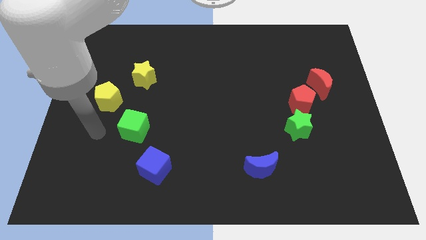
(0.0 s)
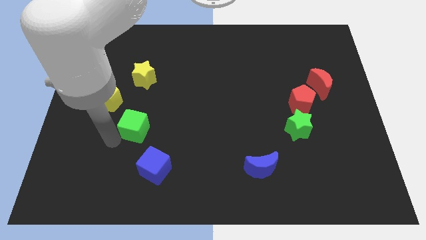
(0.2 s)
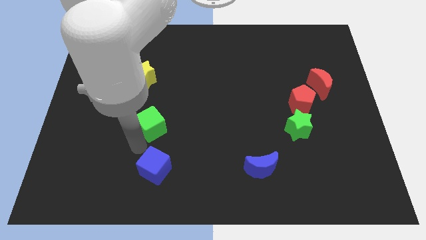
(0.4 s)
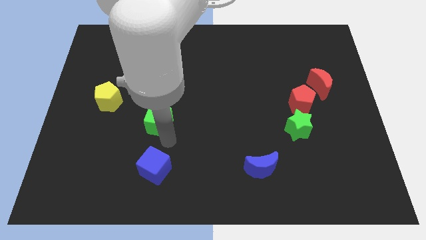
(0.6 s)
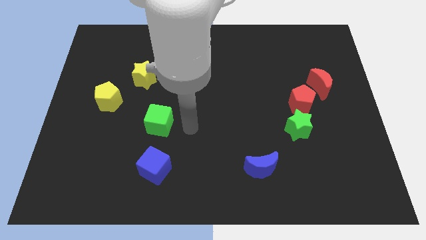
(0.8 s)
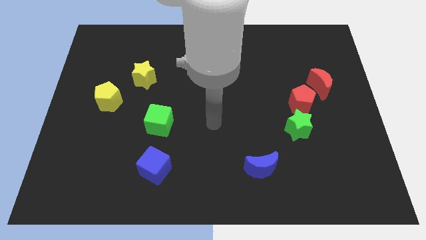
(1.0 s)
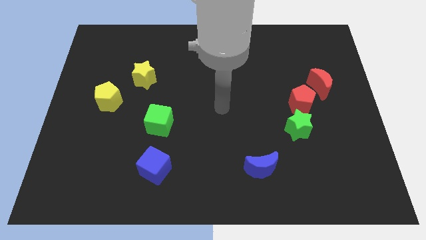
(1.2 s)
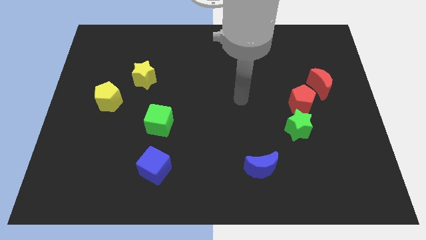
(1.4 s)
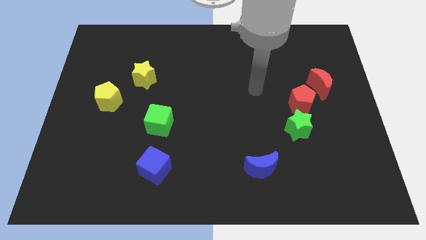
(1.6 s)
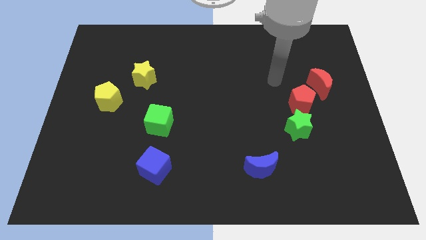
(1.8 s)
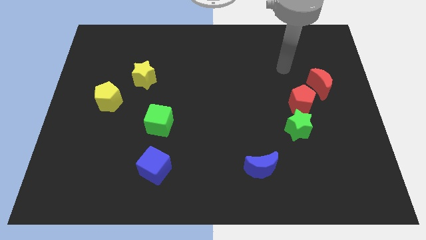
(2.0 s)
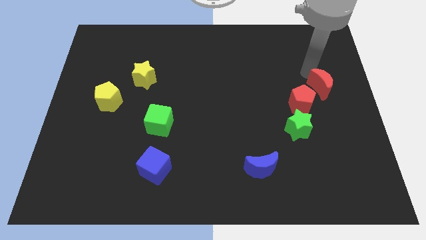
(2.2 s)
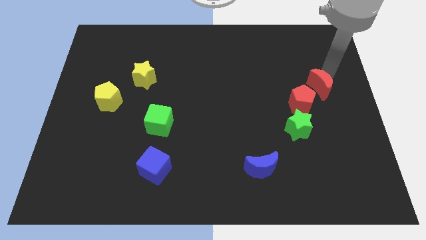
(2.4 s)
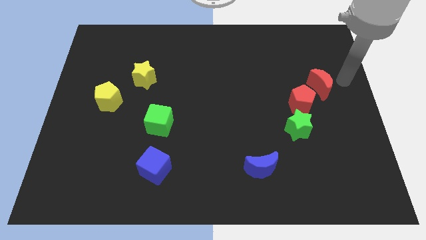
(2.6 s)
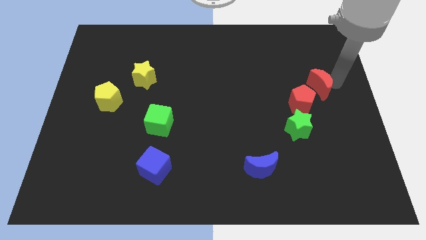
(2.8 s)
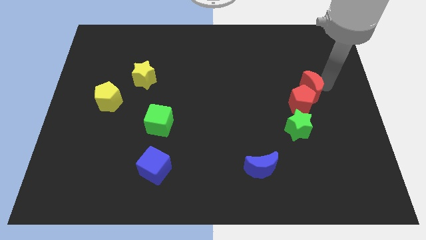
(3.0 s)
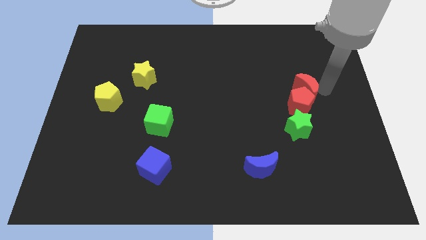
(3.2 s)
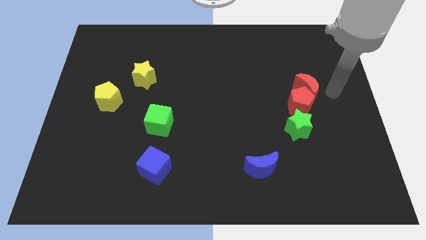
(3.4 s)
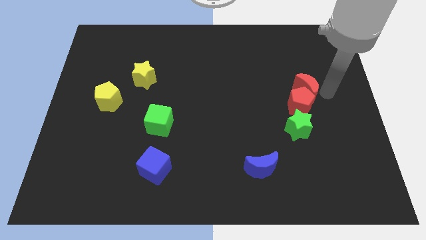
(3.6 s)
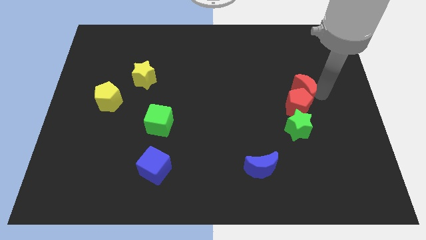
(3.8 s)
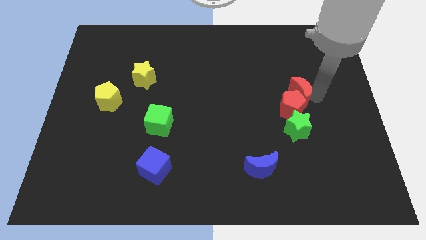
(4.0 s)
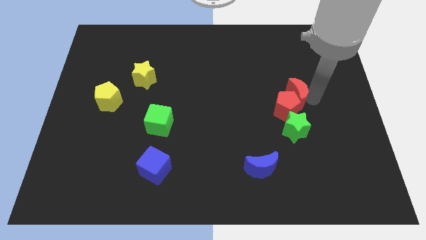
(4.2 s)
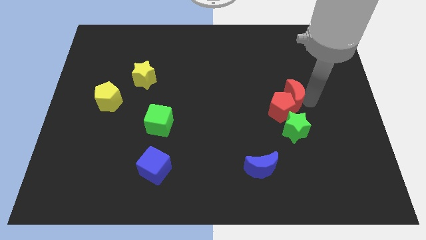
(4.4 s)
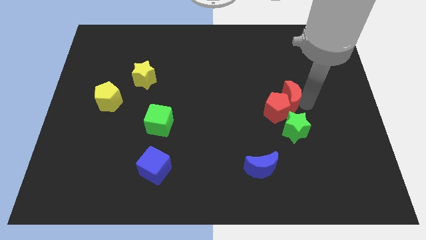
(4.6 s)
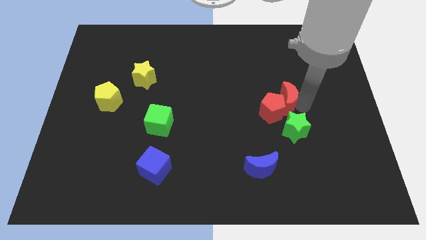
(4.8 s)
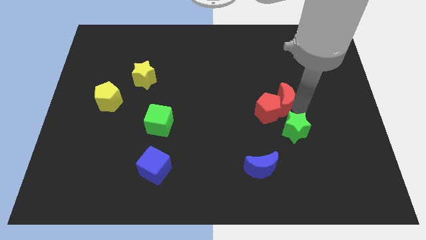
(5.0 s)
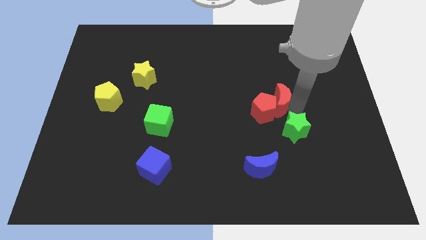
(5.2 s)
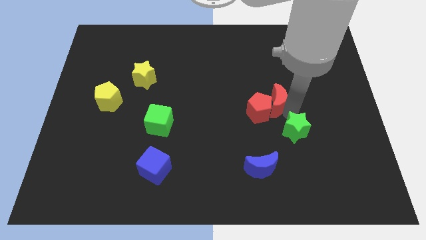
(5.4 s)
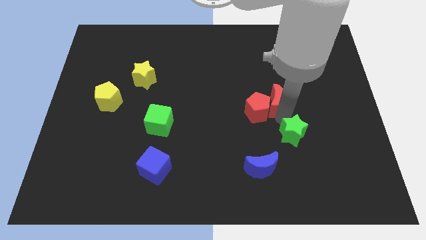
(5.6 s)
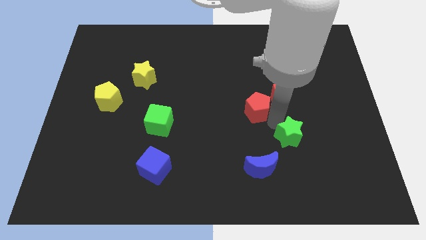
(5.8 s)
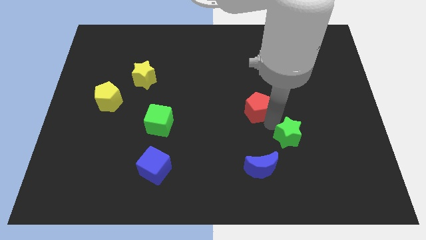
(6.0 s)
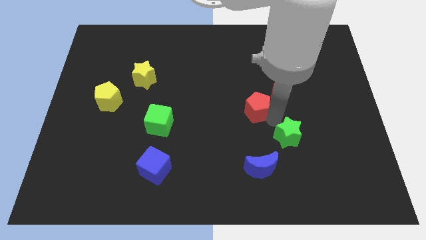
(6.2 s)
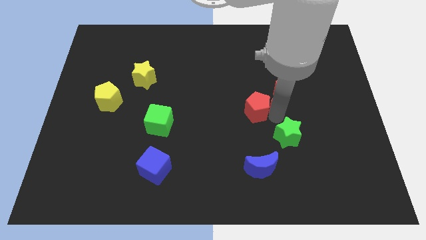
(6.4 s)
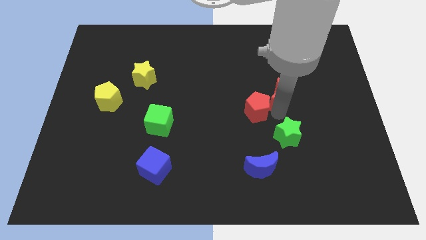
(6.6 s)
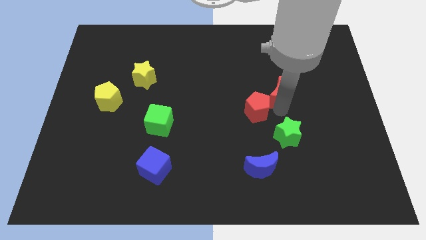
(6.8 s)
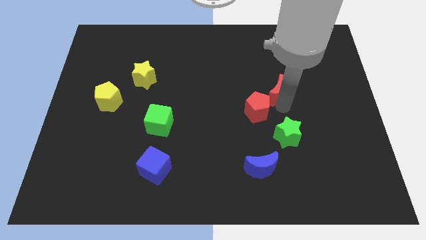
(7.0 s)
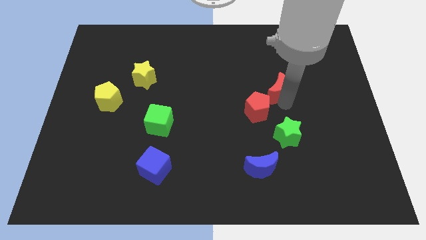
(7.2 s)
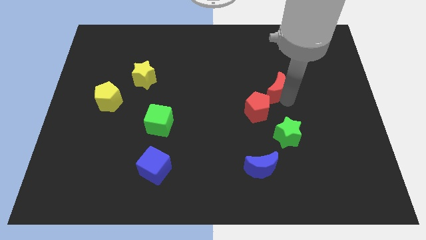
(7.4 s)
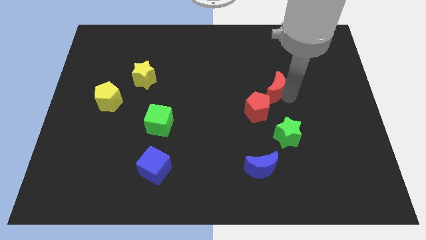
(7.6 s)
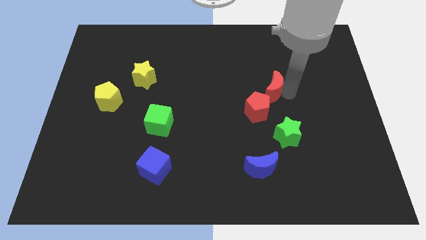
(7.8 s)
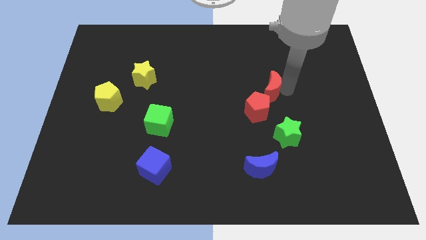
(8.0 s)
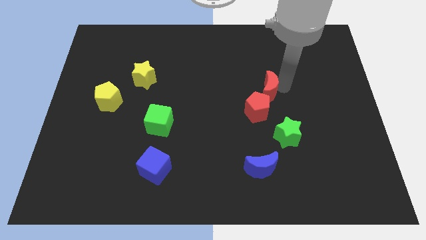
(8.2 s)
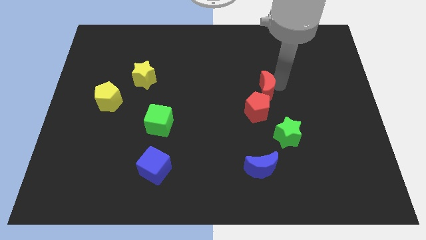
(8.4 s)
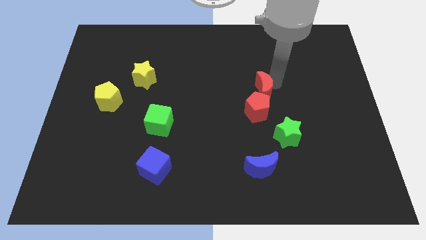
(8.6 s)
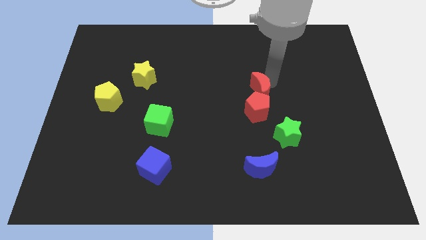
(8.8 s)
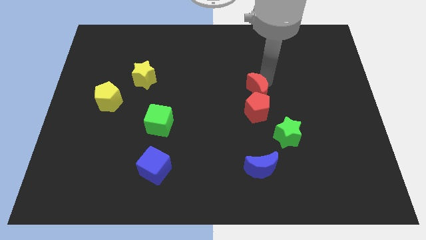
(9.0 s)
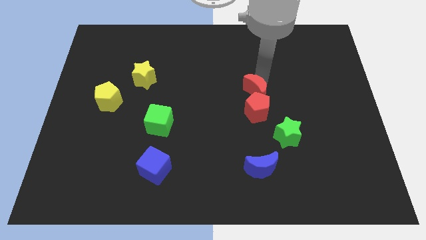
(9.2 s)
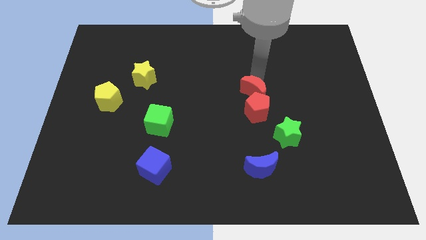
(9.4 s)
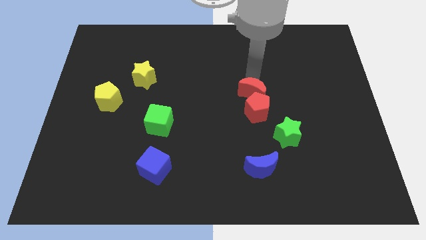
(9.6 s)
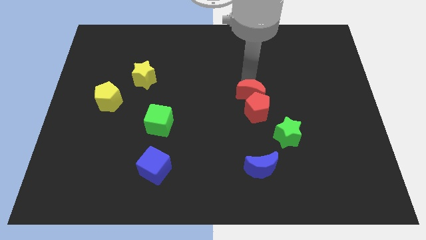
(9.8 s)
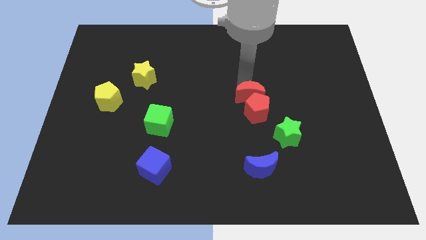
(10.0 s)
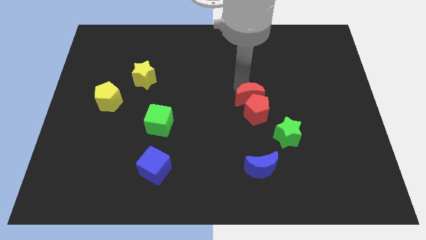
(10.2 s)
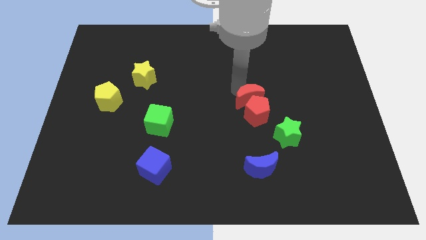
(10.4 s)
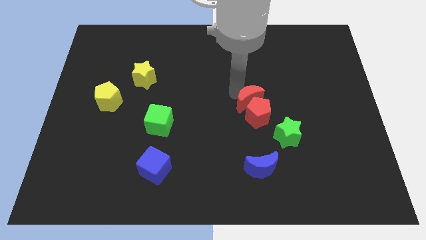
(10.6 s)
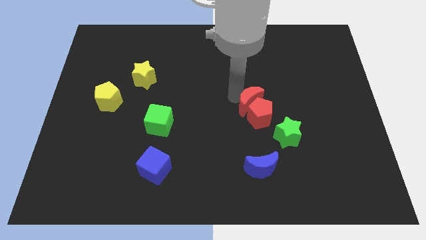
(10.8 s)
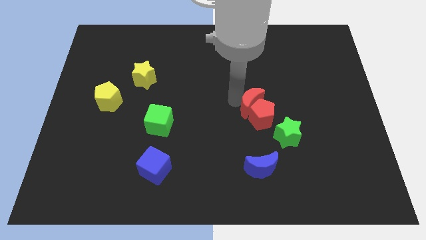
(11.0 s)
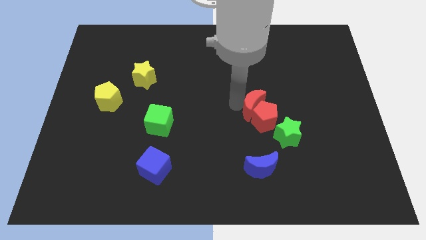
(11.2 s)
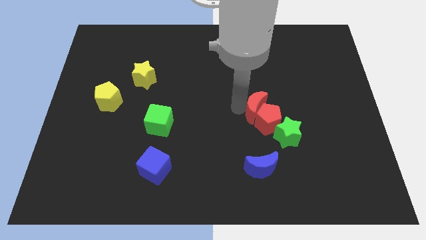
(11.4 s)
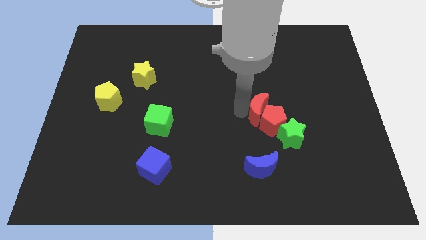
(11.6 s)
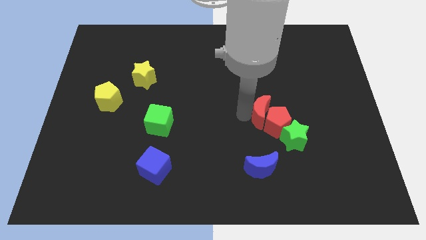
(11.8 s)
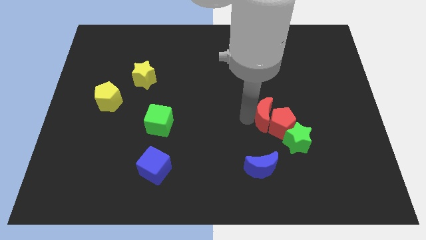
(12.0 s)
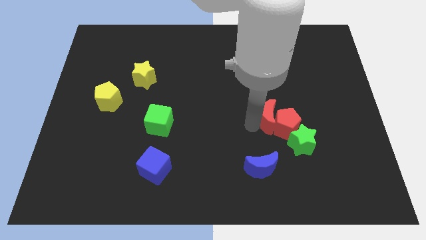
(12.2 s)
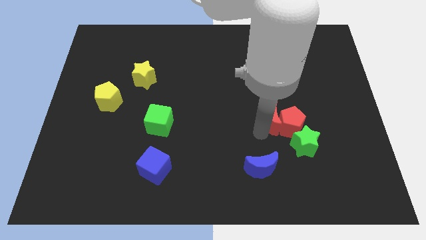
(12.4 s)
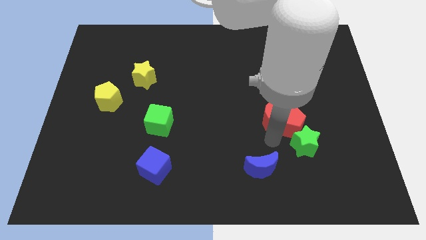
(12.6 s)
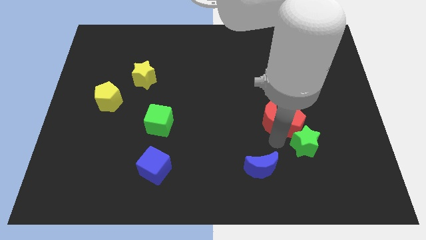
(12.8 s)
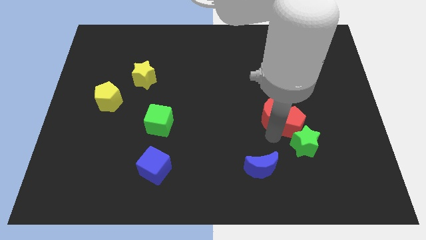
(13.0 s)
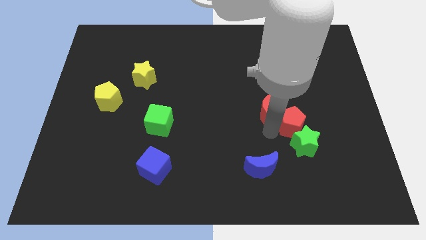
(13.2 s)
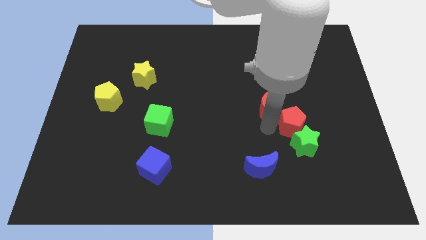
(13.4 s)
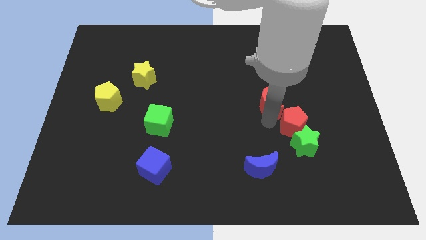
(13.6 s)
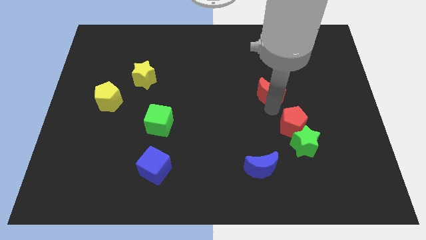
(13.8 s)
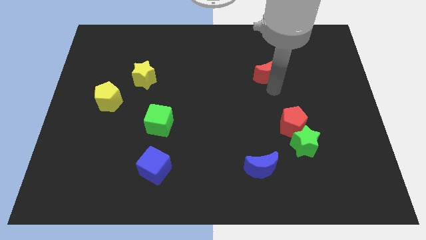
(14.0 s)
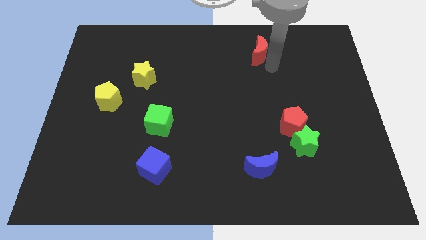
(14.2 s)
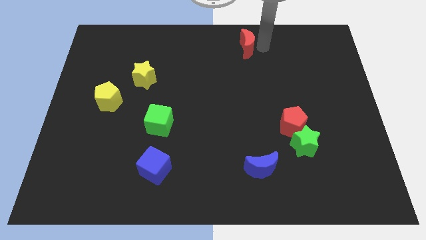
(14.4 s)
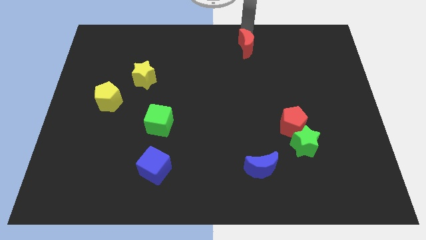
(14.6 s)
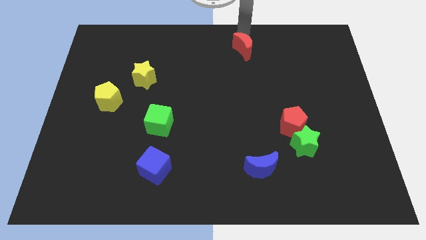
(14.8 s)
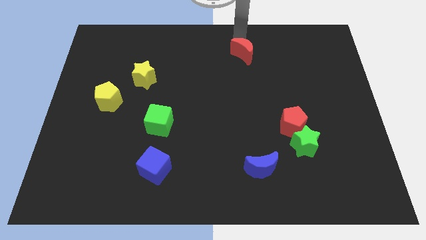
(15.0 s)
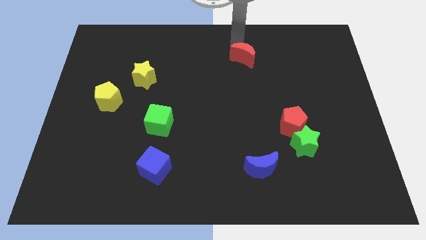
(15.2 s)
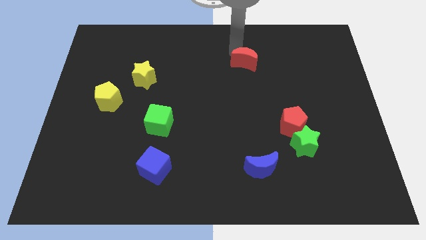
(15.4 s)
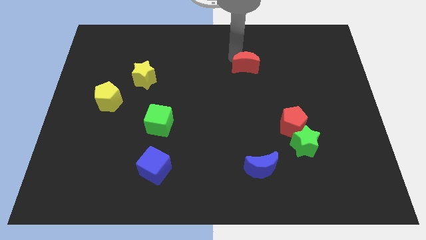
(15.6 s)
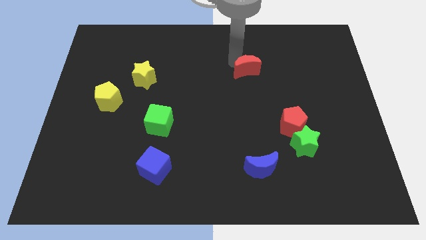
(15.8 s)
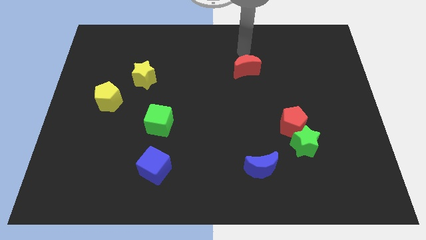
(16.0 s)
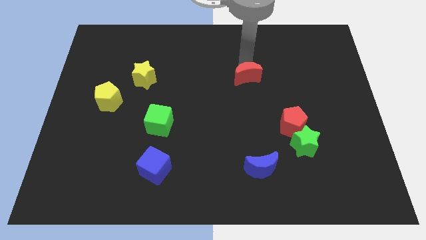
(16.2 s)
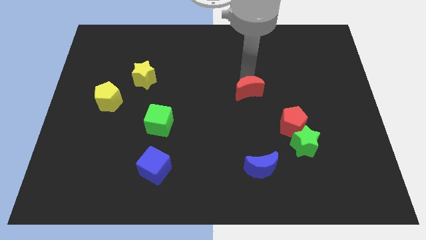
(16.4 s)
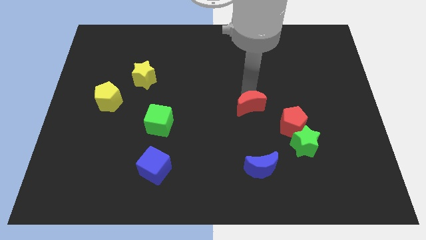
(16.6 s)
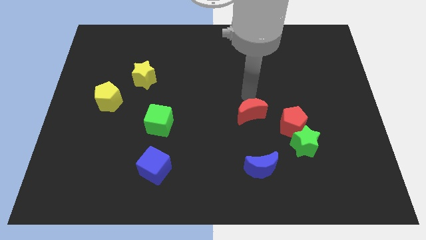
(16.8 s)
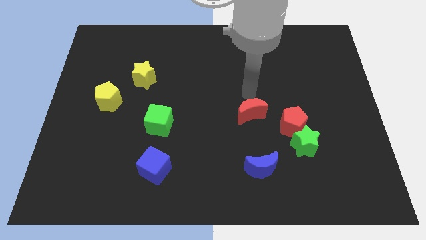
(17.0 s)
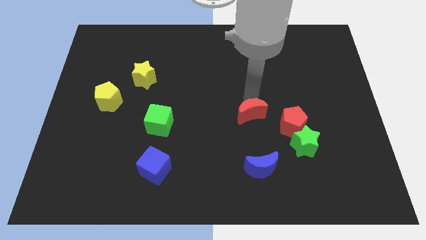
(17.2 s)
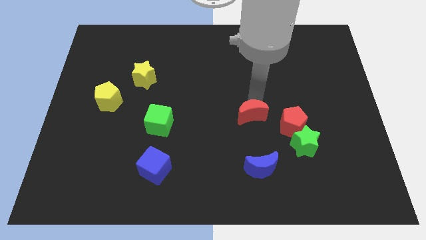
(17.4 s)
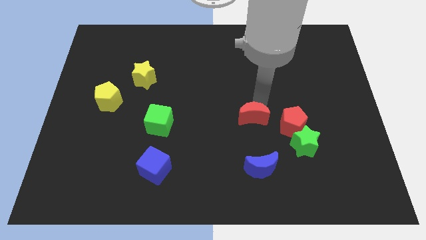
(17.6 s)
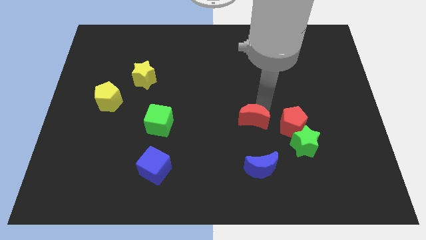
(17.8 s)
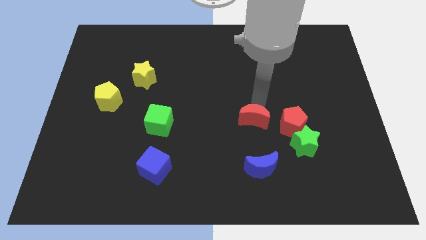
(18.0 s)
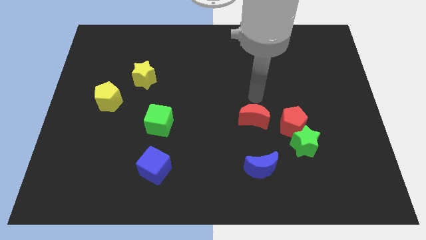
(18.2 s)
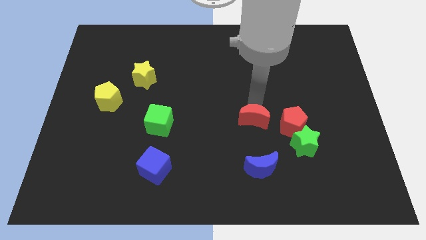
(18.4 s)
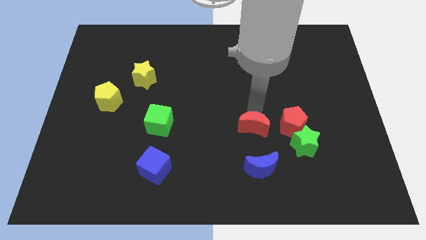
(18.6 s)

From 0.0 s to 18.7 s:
slide the red moon diagonally downwards and to the left
